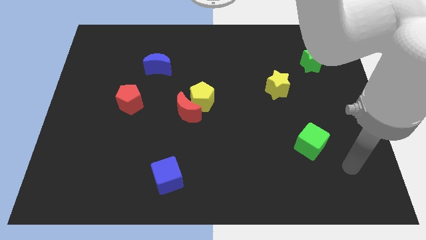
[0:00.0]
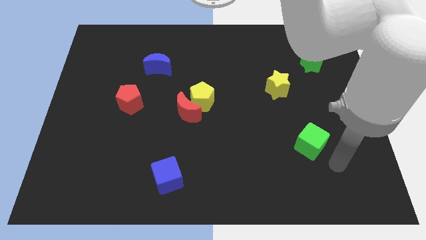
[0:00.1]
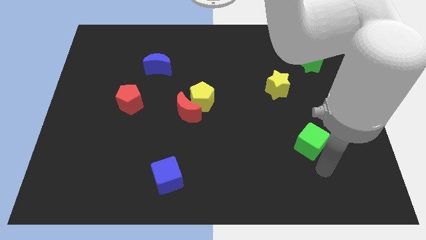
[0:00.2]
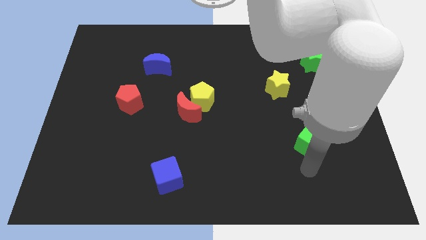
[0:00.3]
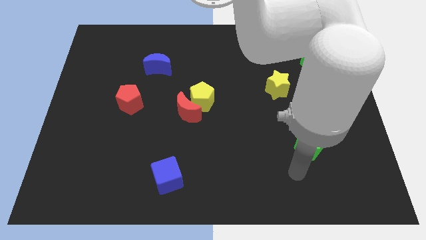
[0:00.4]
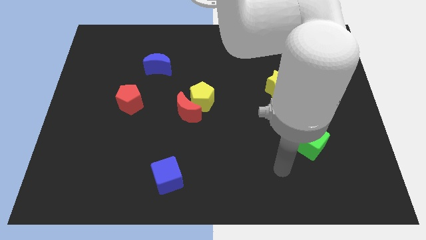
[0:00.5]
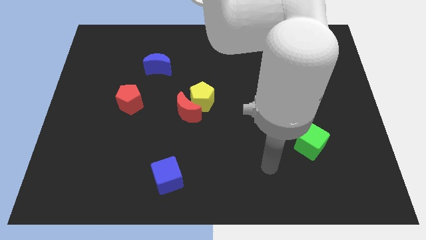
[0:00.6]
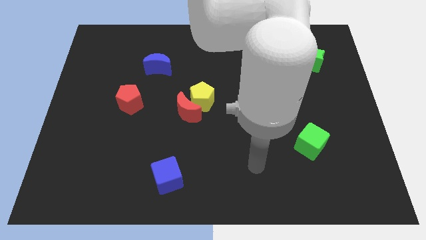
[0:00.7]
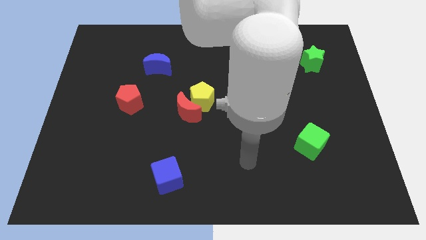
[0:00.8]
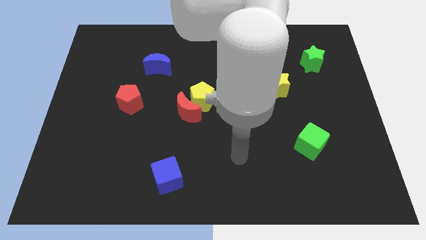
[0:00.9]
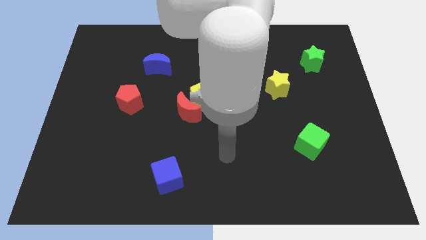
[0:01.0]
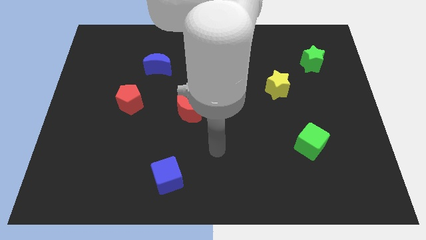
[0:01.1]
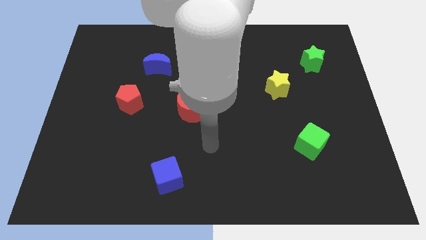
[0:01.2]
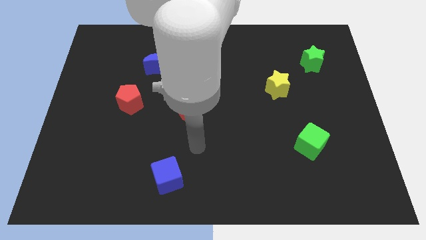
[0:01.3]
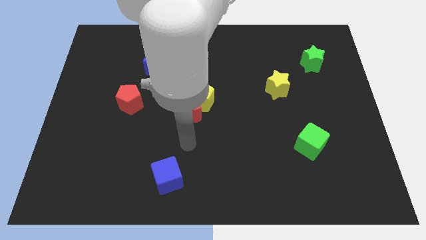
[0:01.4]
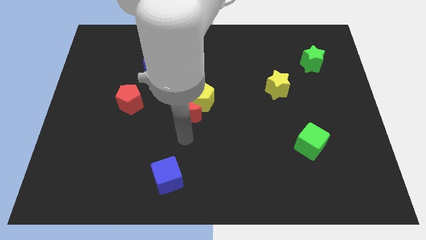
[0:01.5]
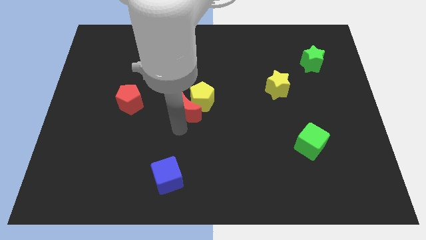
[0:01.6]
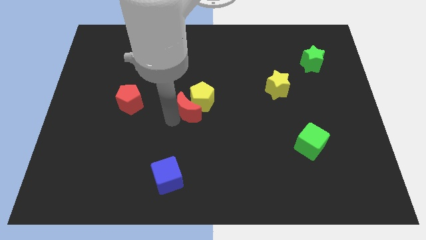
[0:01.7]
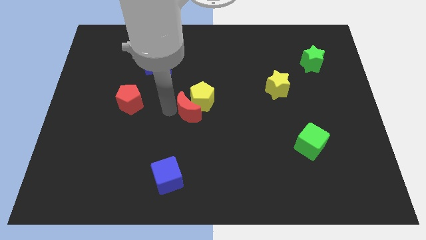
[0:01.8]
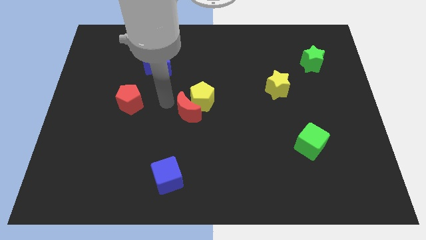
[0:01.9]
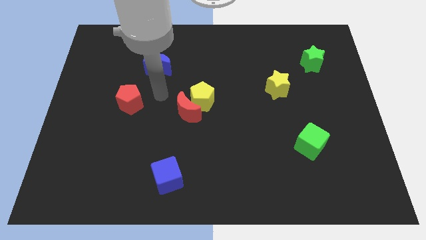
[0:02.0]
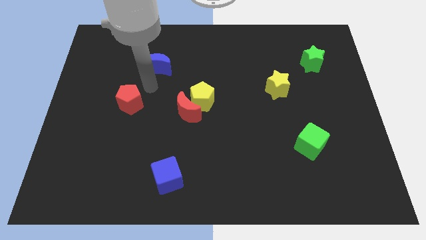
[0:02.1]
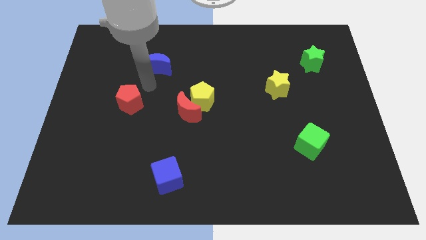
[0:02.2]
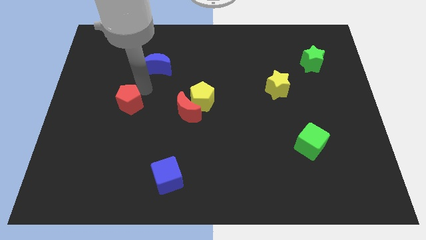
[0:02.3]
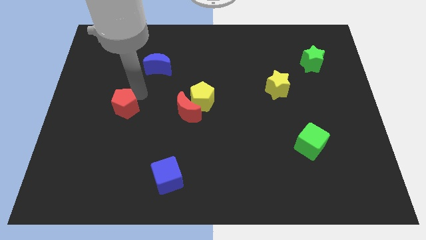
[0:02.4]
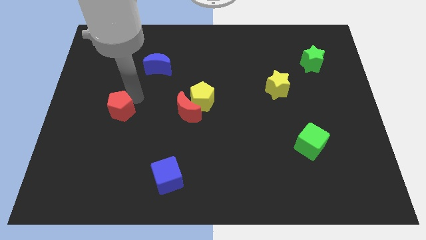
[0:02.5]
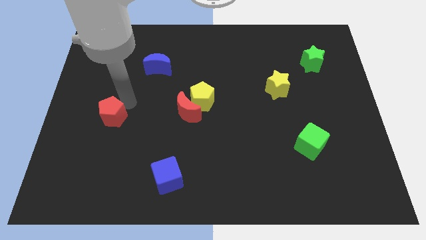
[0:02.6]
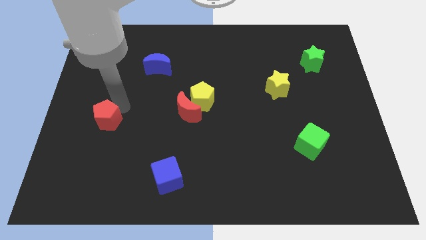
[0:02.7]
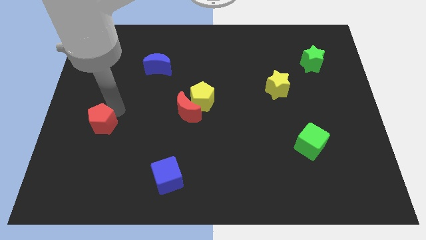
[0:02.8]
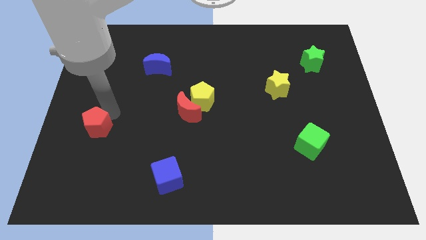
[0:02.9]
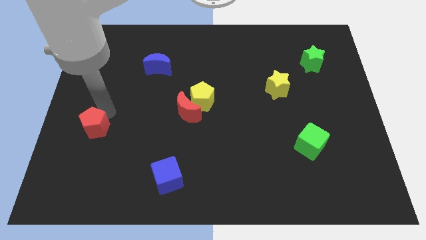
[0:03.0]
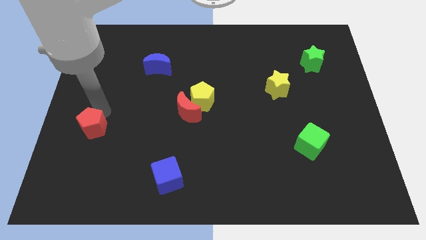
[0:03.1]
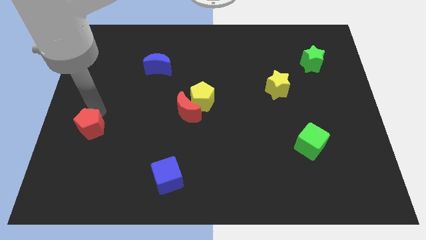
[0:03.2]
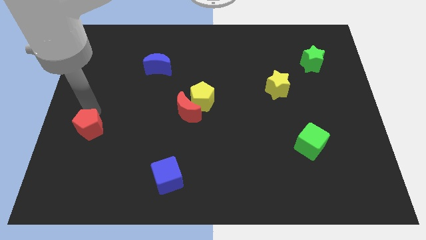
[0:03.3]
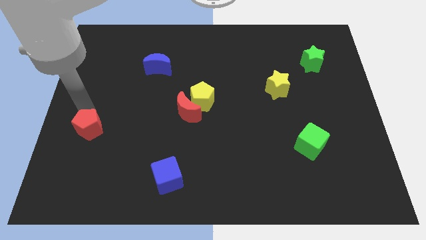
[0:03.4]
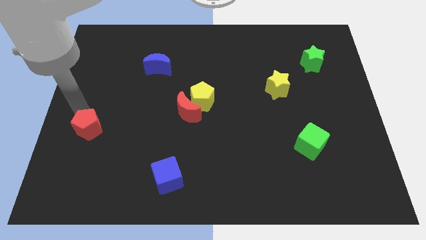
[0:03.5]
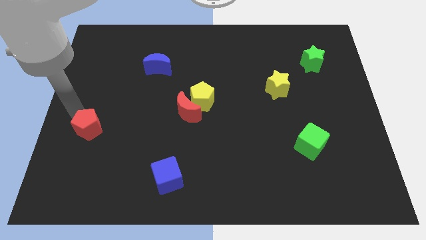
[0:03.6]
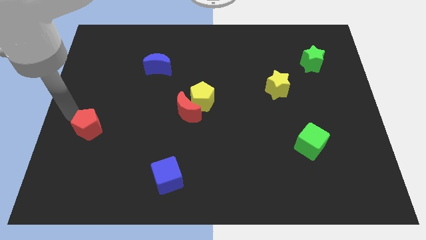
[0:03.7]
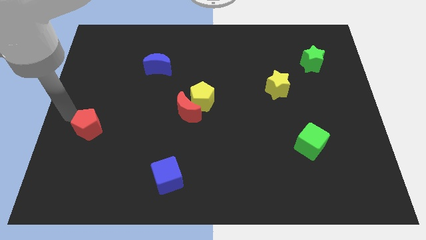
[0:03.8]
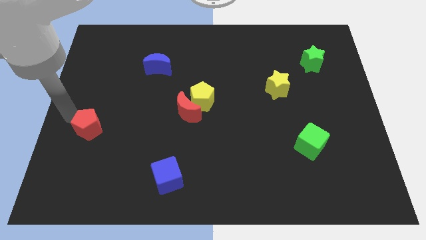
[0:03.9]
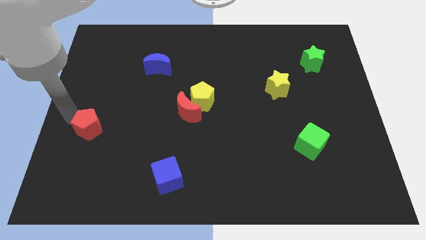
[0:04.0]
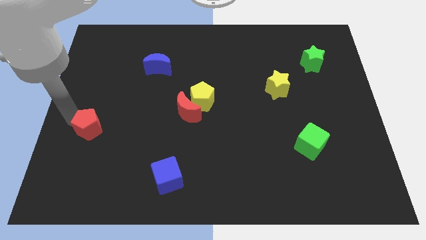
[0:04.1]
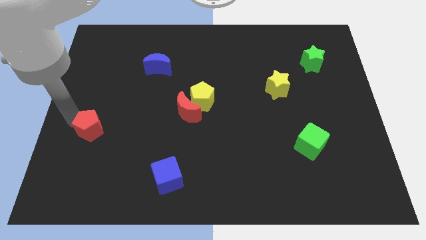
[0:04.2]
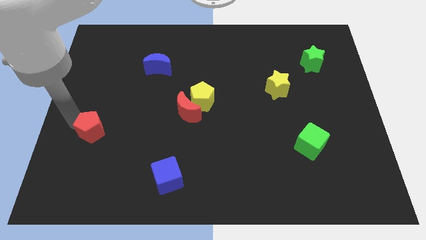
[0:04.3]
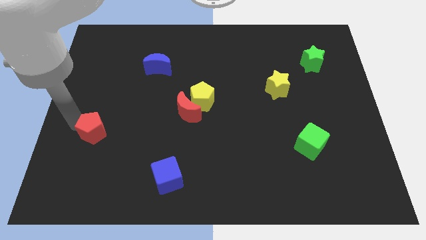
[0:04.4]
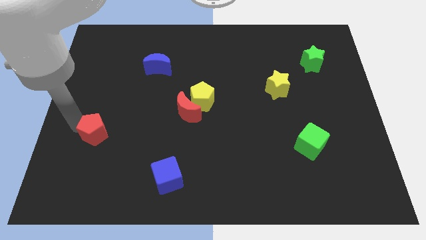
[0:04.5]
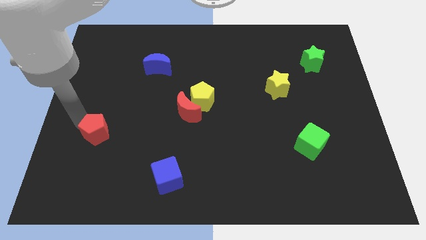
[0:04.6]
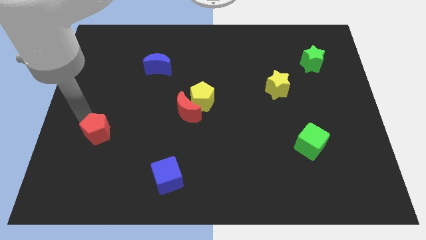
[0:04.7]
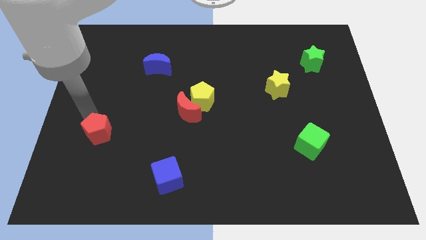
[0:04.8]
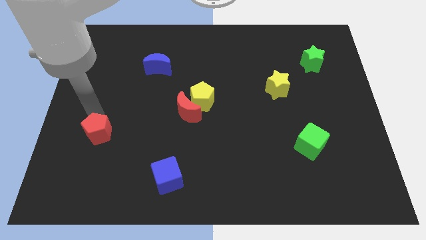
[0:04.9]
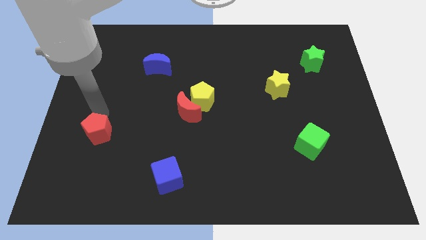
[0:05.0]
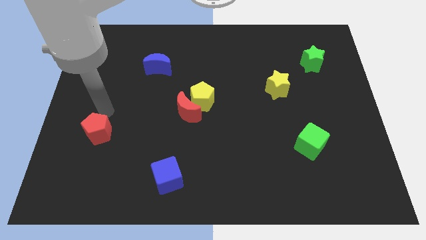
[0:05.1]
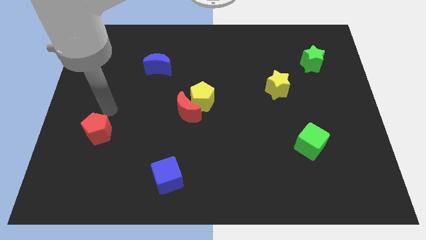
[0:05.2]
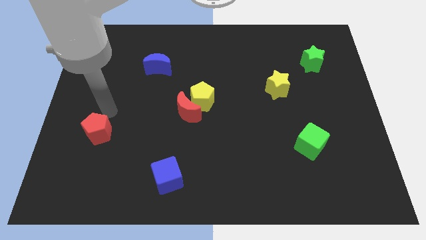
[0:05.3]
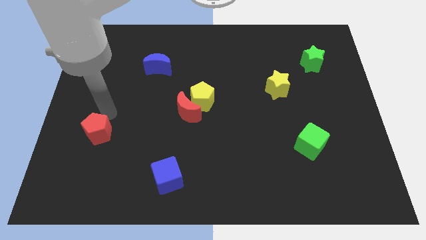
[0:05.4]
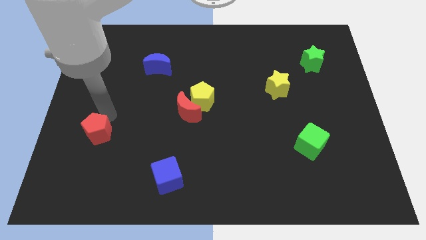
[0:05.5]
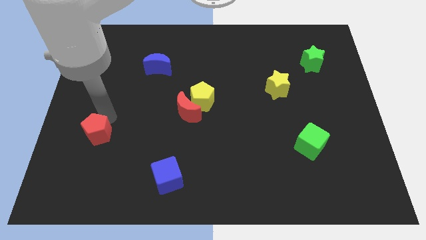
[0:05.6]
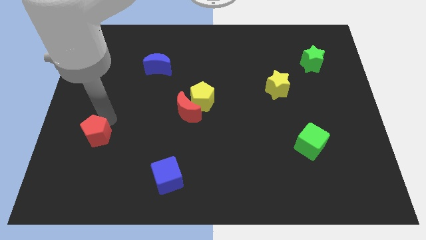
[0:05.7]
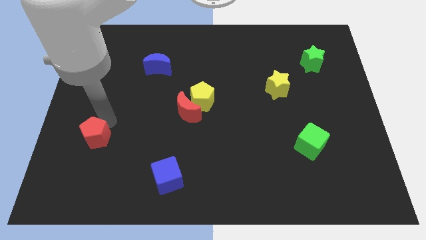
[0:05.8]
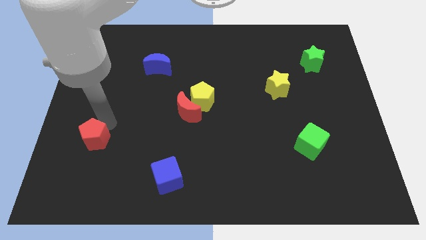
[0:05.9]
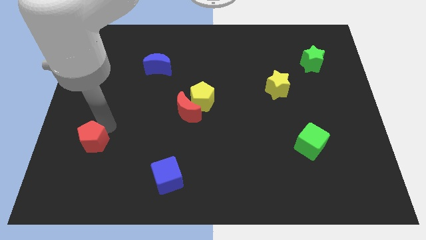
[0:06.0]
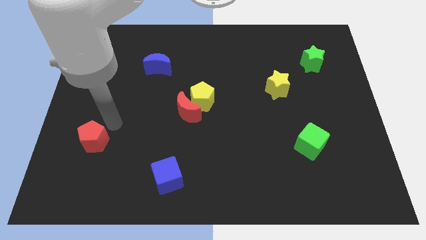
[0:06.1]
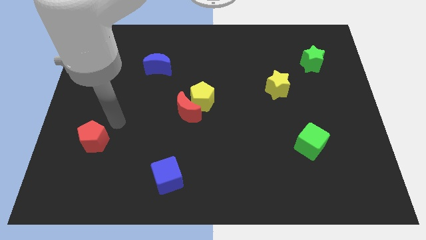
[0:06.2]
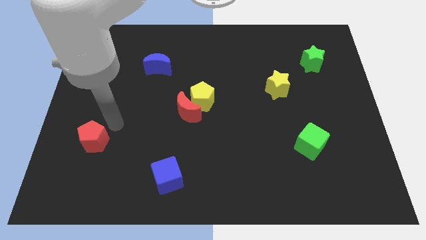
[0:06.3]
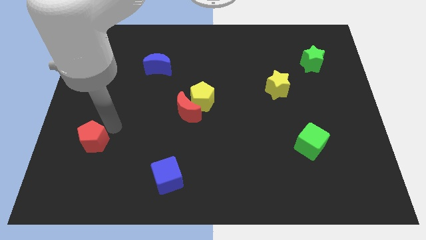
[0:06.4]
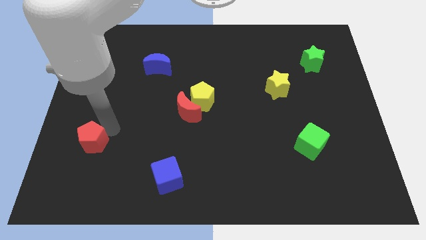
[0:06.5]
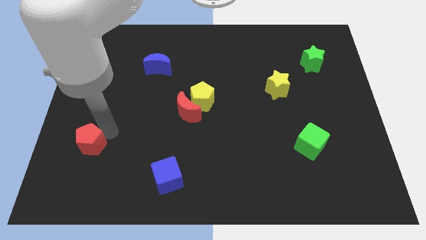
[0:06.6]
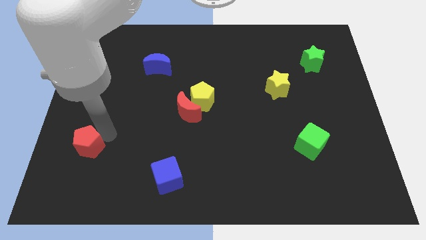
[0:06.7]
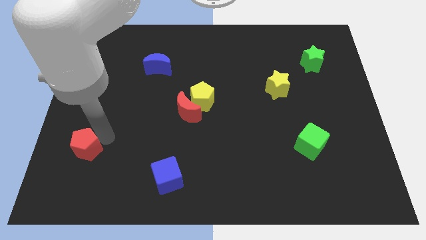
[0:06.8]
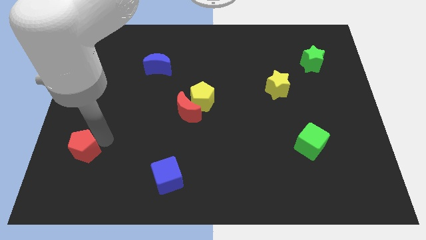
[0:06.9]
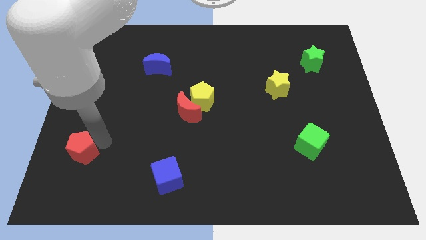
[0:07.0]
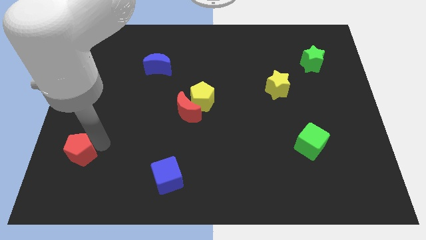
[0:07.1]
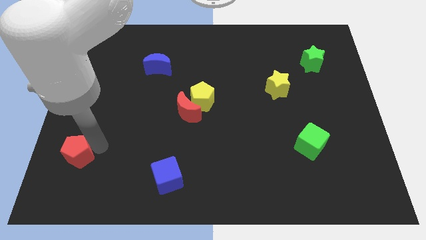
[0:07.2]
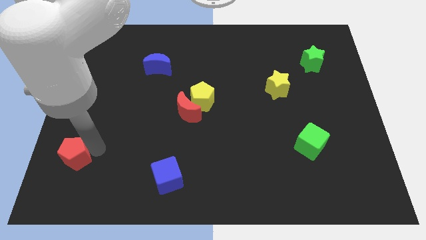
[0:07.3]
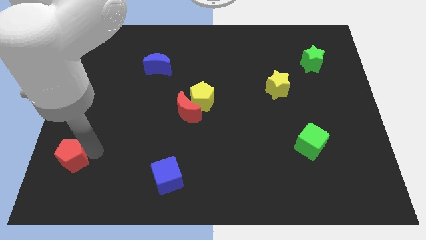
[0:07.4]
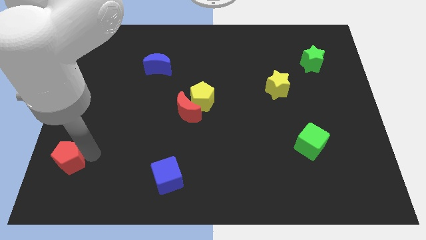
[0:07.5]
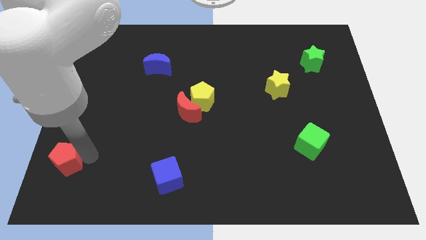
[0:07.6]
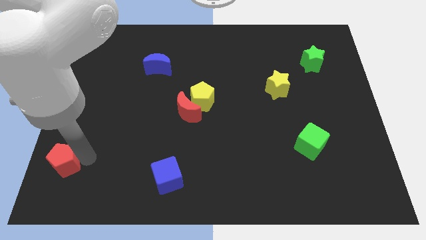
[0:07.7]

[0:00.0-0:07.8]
push the red pentagon to the bottom left of the board
